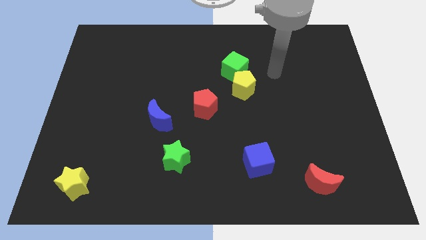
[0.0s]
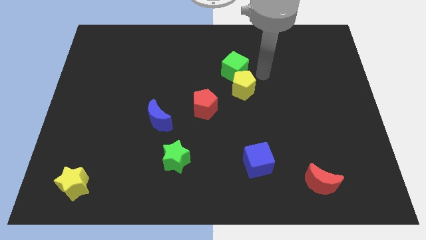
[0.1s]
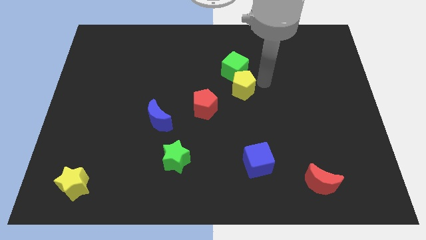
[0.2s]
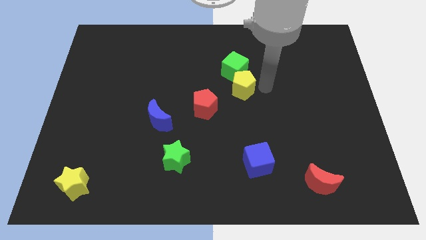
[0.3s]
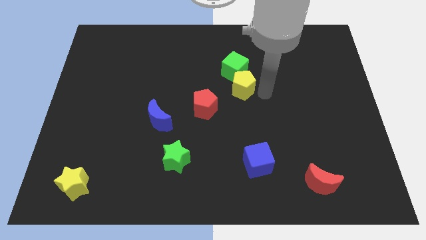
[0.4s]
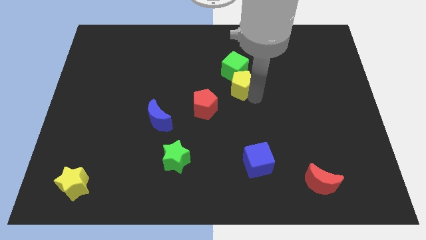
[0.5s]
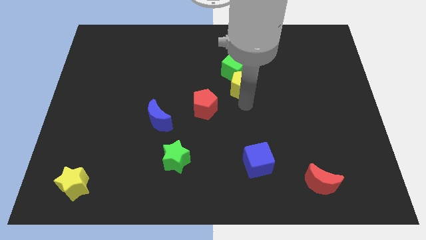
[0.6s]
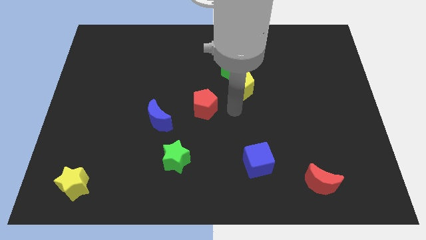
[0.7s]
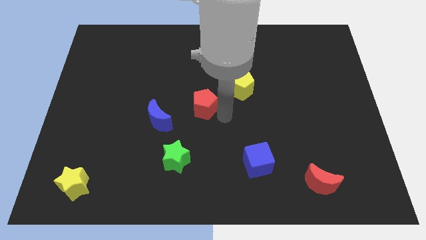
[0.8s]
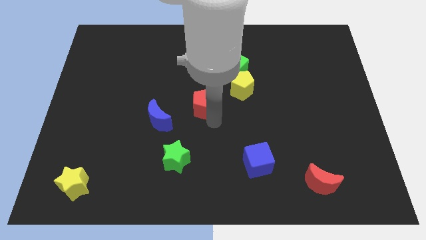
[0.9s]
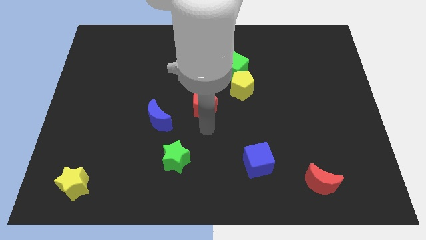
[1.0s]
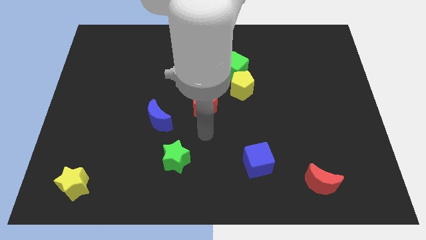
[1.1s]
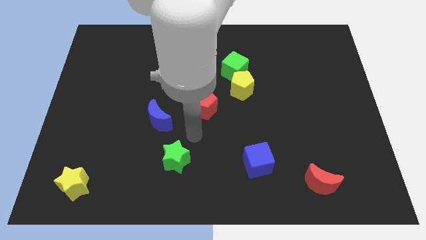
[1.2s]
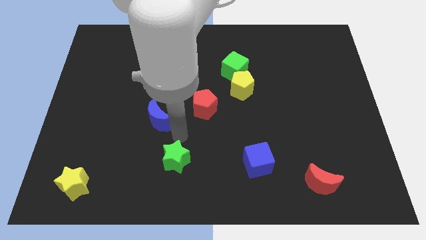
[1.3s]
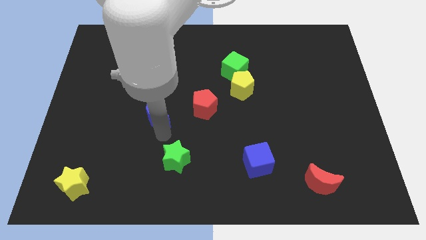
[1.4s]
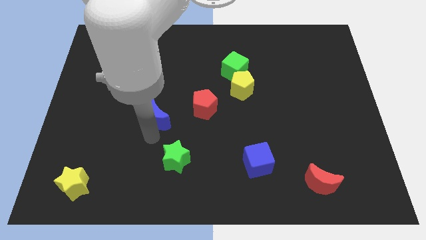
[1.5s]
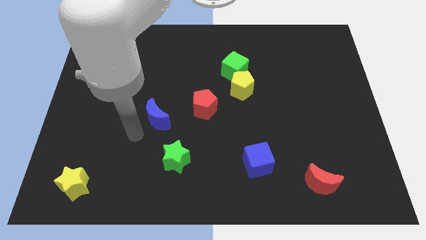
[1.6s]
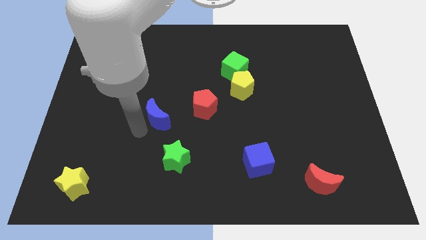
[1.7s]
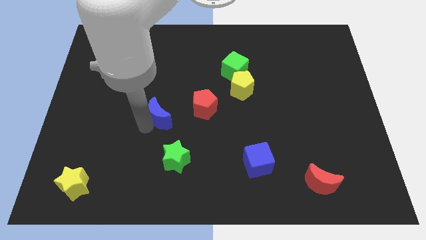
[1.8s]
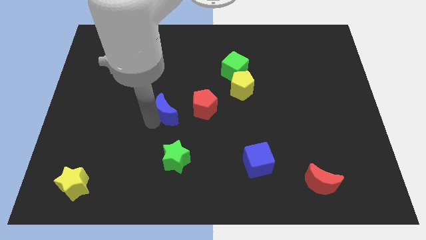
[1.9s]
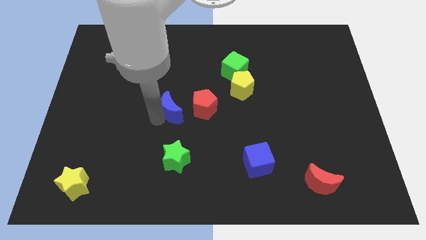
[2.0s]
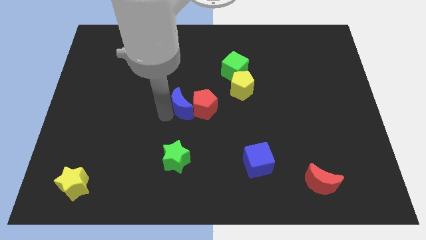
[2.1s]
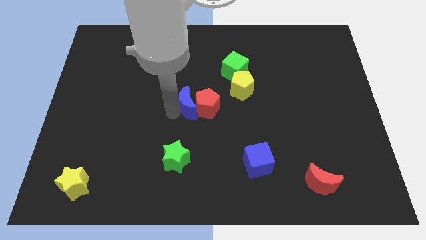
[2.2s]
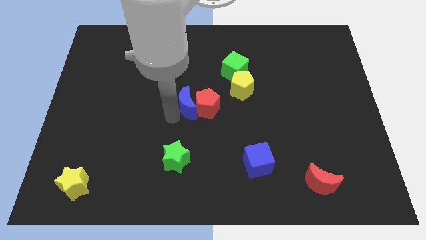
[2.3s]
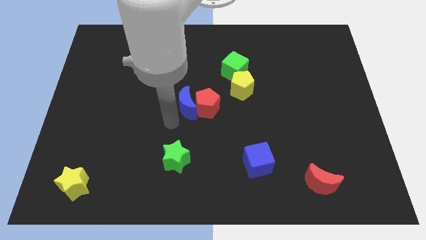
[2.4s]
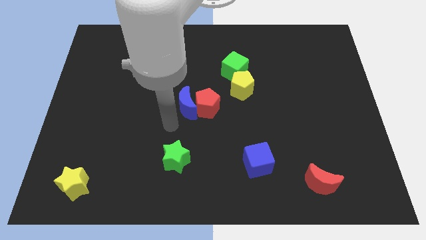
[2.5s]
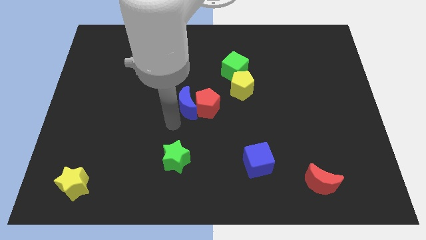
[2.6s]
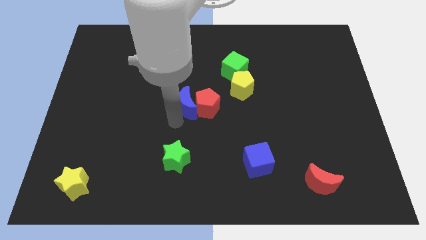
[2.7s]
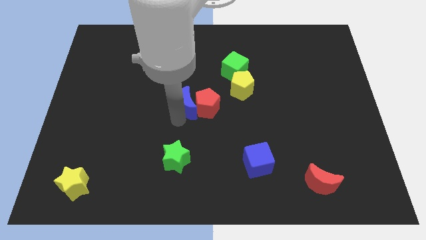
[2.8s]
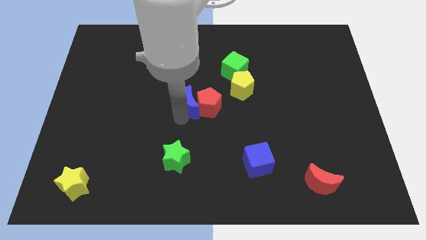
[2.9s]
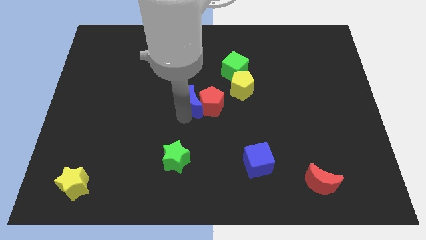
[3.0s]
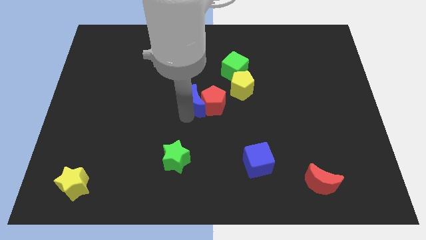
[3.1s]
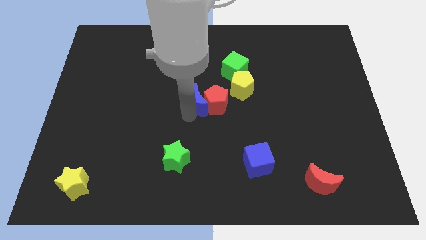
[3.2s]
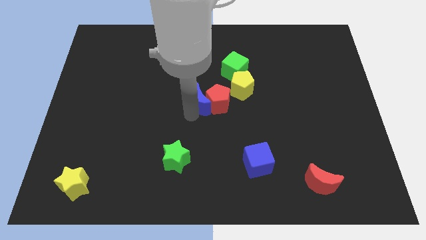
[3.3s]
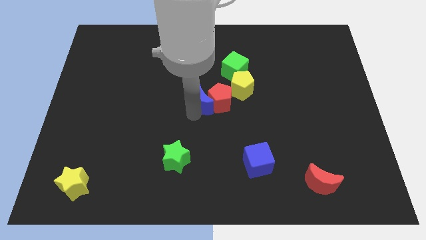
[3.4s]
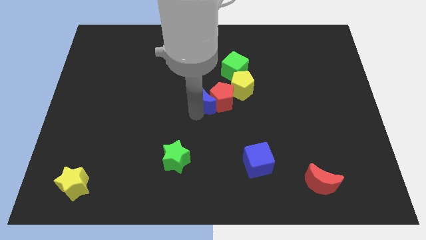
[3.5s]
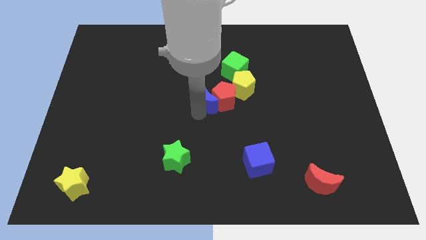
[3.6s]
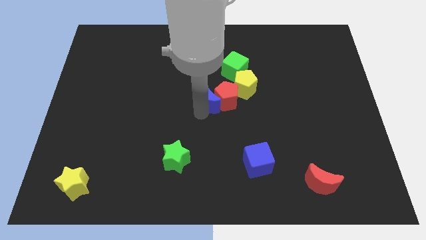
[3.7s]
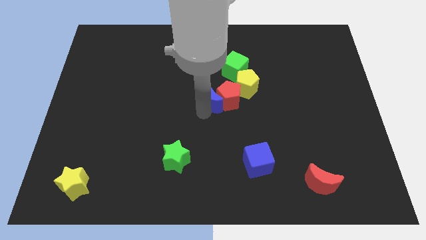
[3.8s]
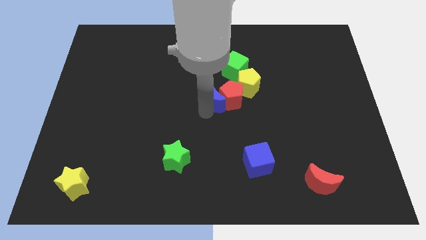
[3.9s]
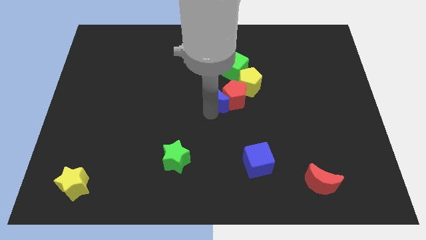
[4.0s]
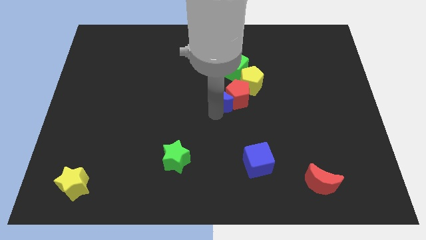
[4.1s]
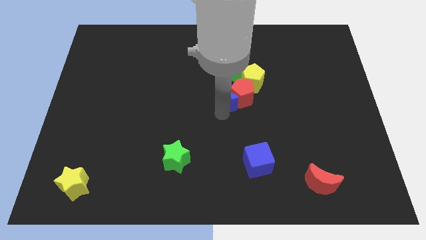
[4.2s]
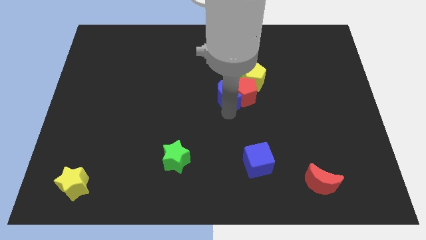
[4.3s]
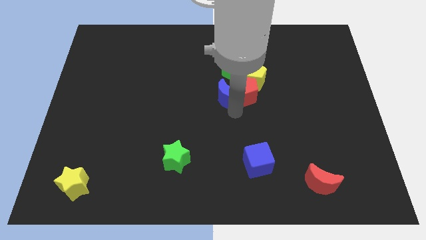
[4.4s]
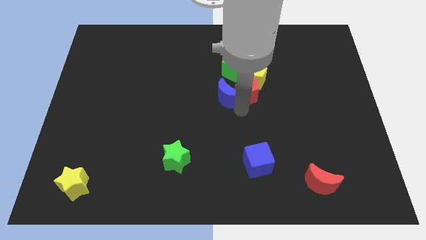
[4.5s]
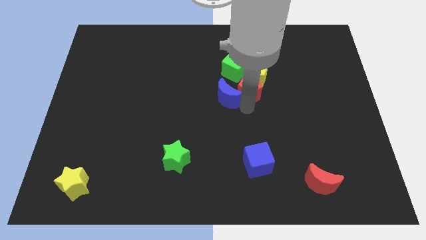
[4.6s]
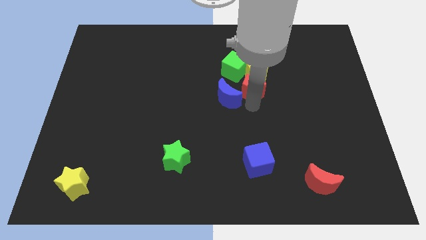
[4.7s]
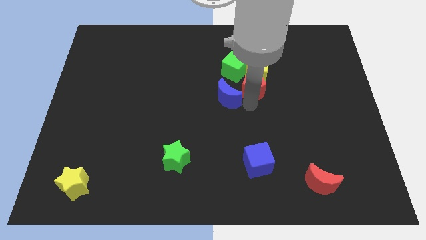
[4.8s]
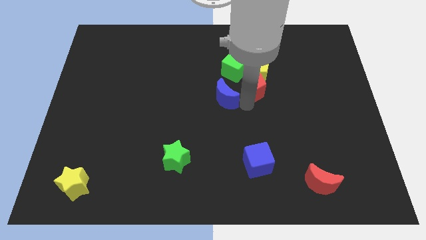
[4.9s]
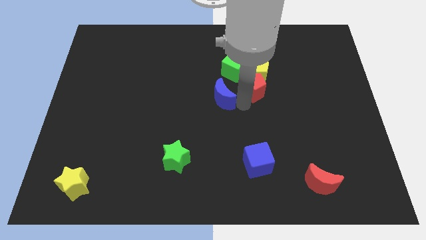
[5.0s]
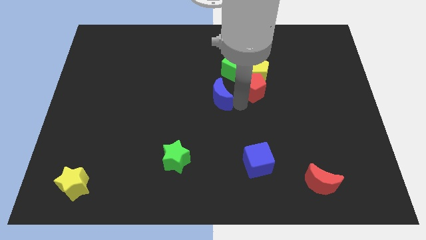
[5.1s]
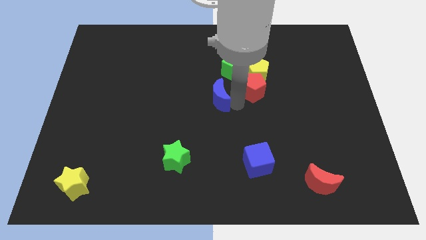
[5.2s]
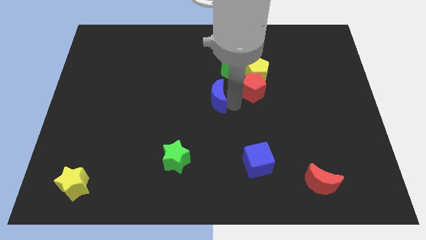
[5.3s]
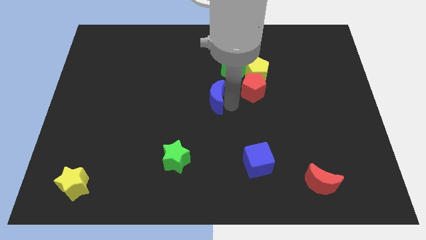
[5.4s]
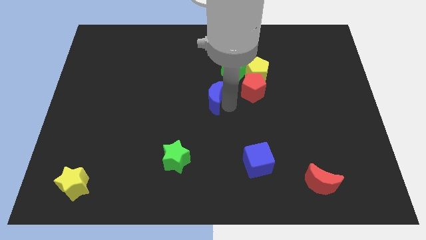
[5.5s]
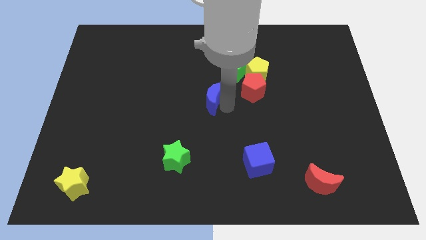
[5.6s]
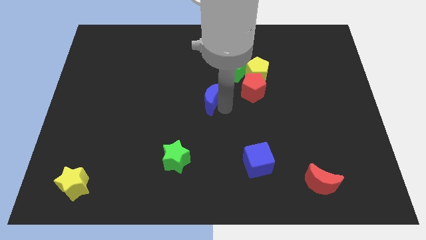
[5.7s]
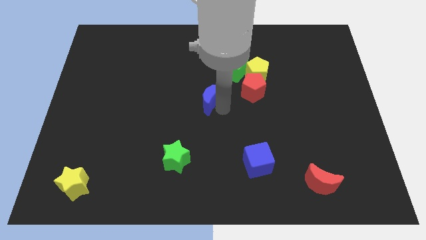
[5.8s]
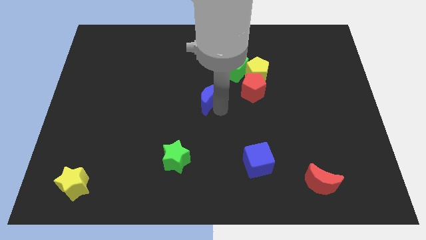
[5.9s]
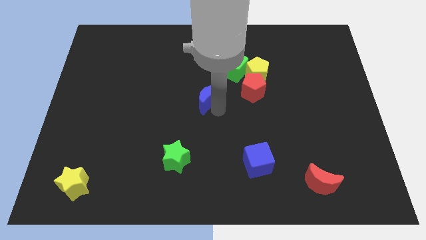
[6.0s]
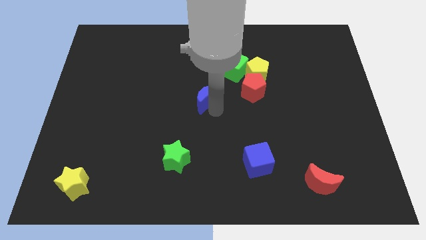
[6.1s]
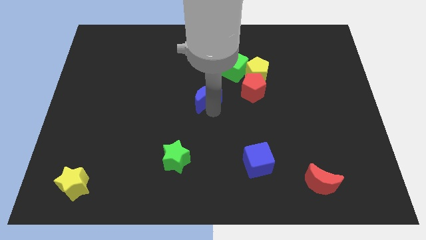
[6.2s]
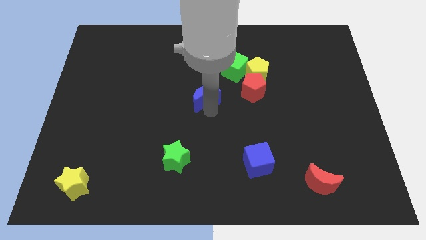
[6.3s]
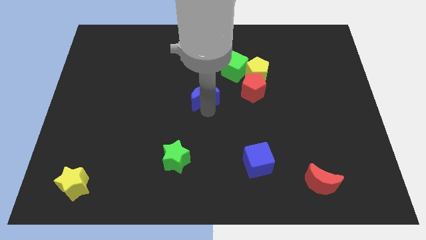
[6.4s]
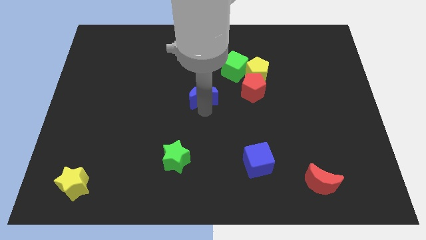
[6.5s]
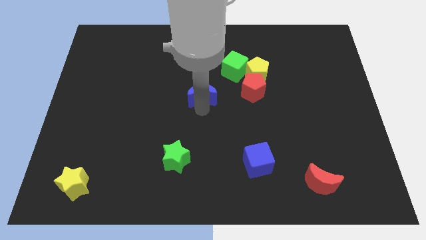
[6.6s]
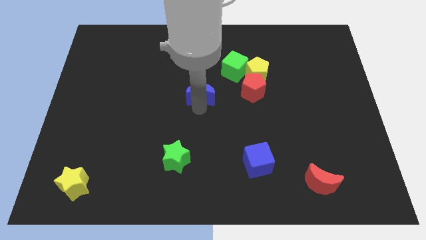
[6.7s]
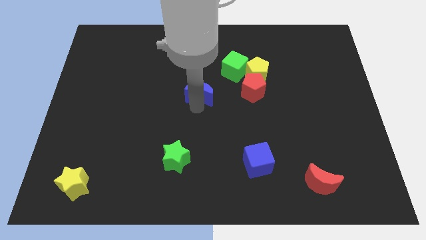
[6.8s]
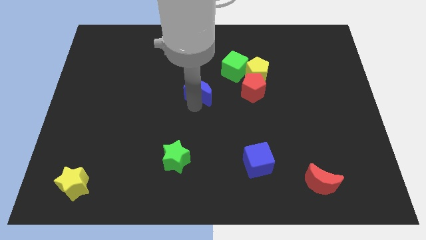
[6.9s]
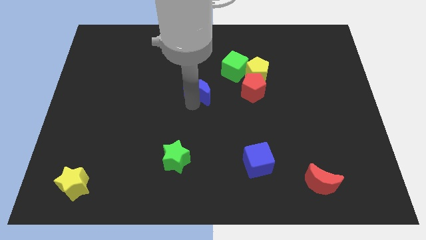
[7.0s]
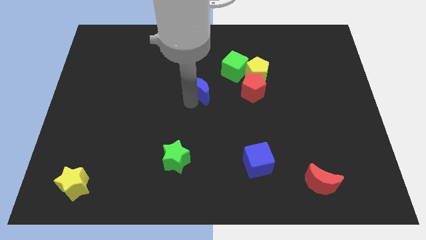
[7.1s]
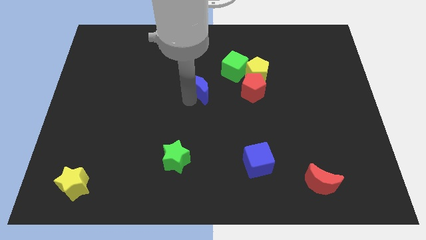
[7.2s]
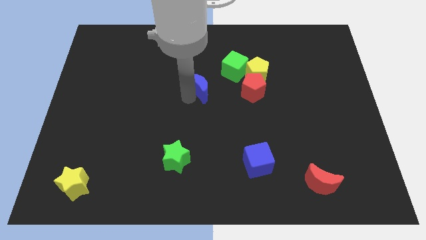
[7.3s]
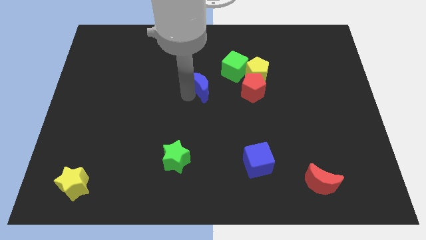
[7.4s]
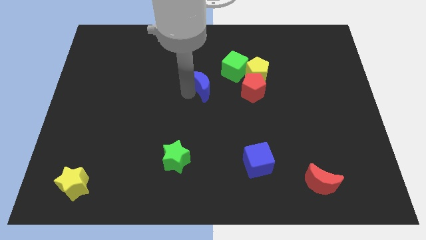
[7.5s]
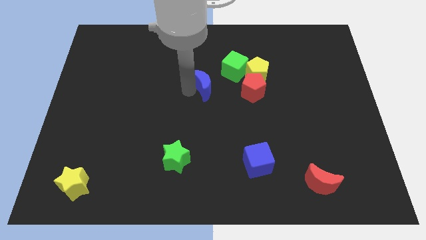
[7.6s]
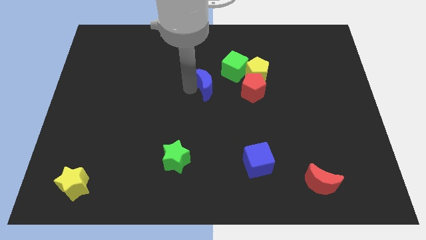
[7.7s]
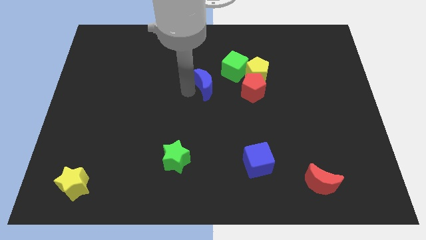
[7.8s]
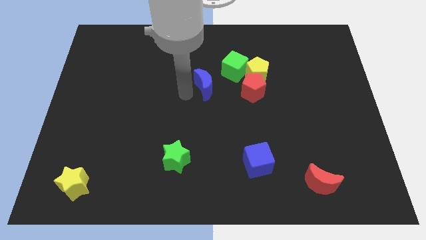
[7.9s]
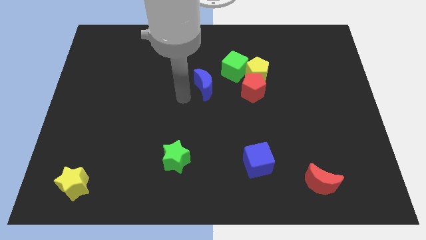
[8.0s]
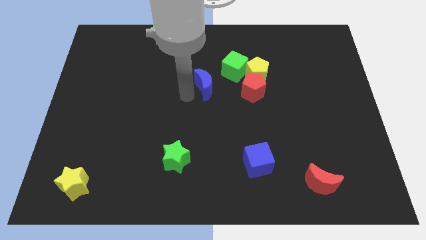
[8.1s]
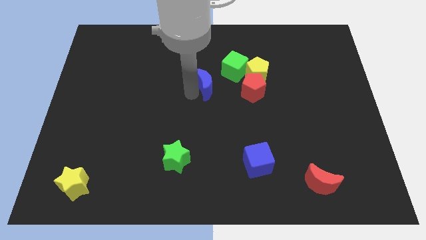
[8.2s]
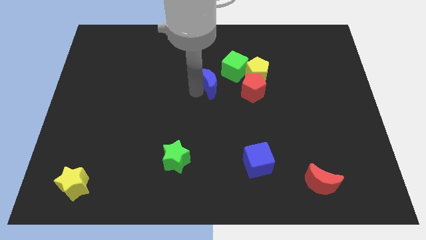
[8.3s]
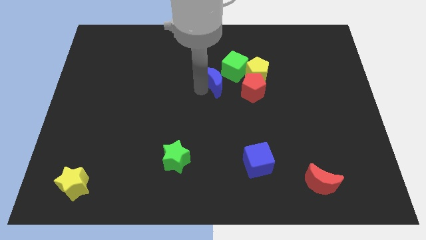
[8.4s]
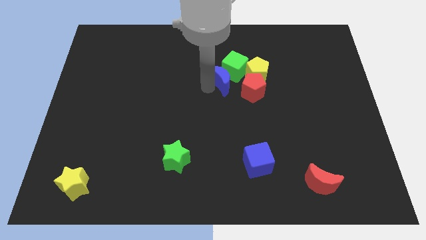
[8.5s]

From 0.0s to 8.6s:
move the blue moon next to the green cube
